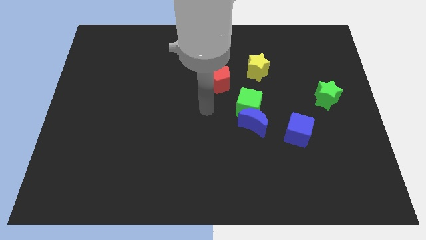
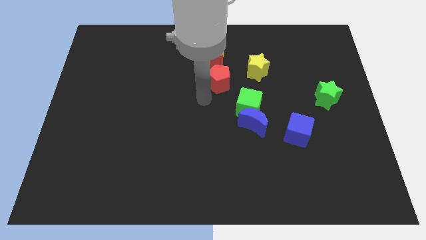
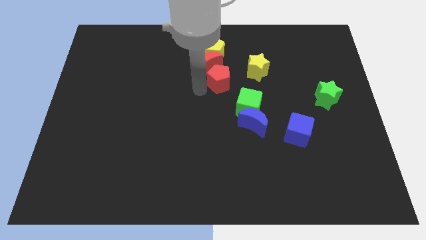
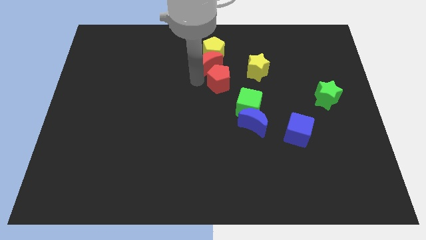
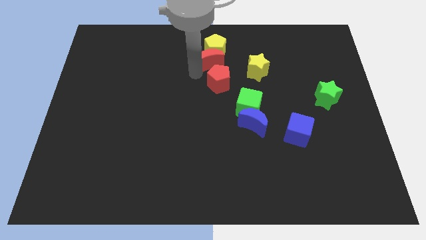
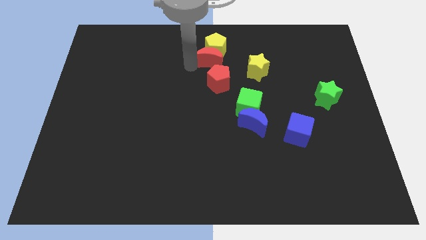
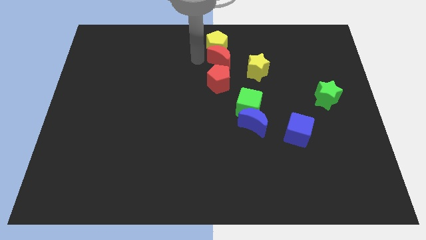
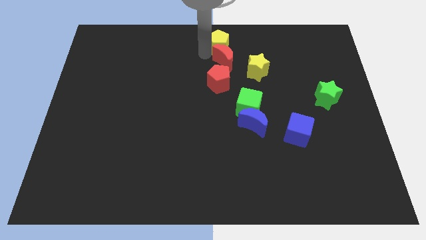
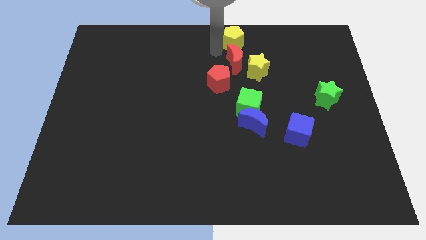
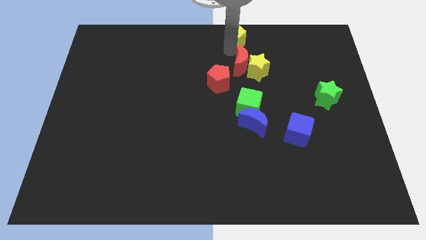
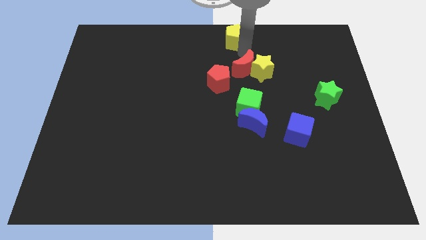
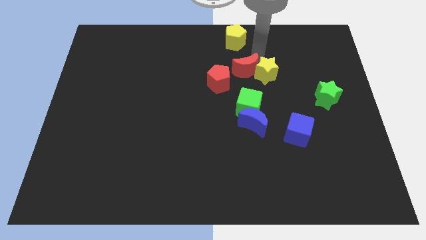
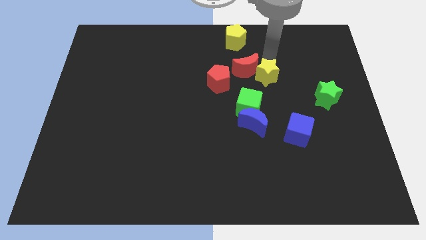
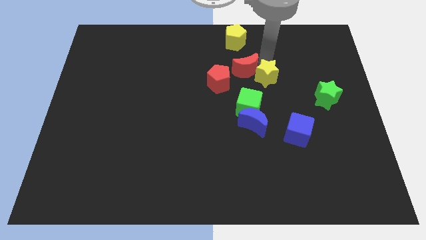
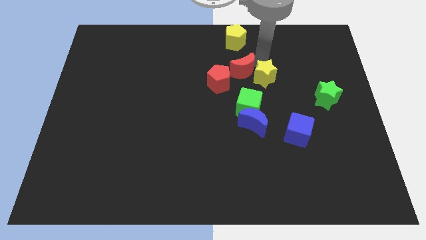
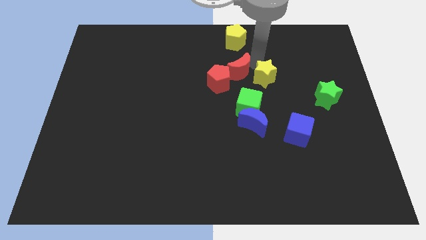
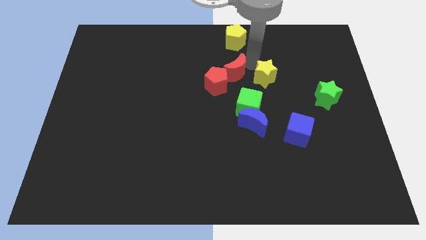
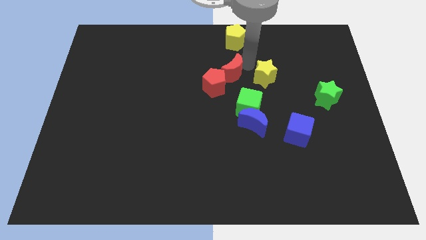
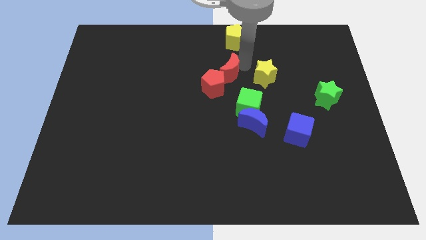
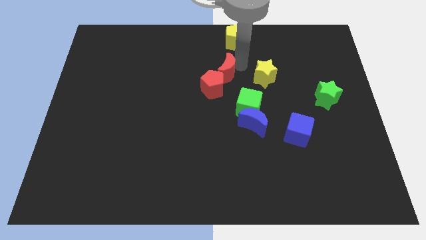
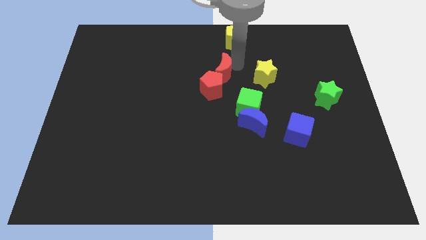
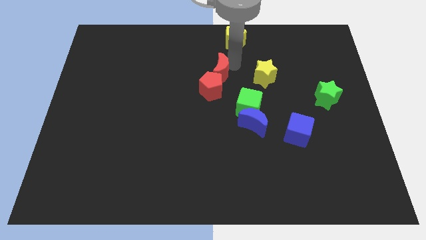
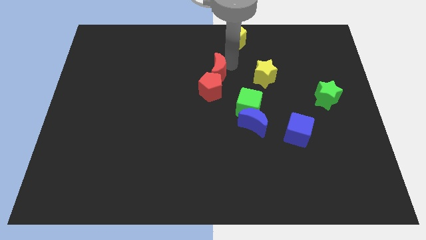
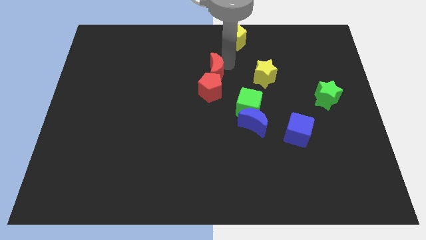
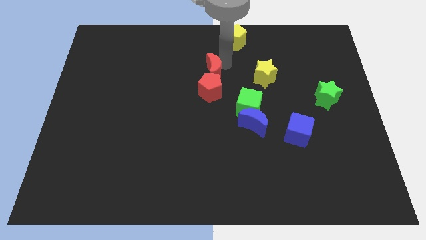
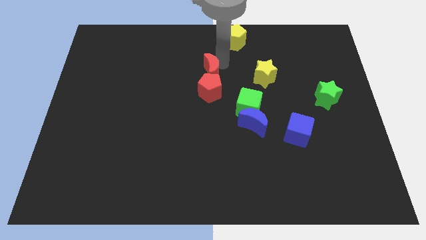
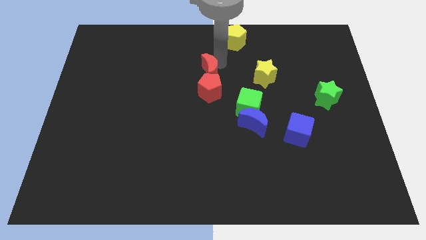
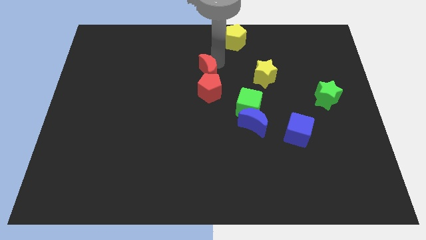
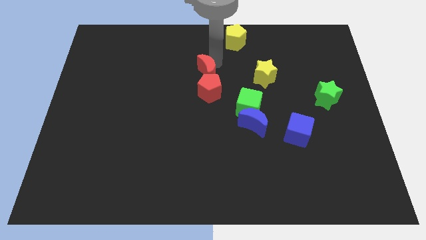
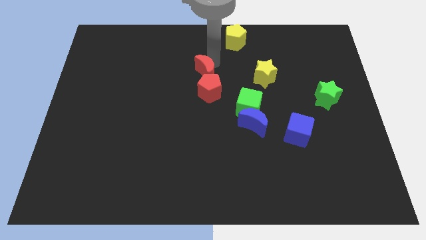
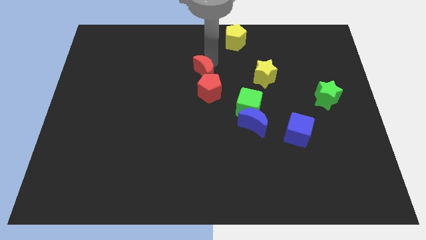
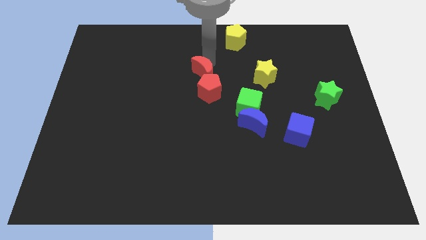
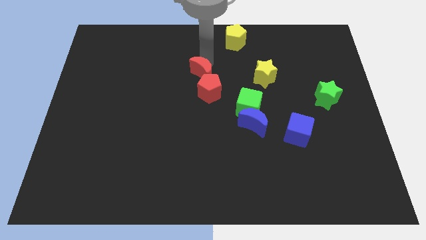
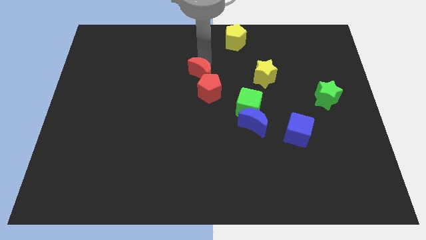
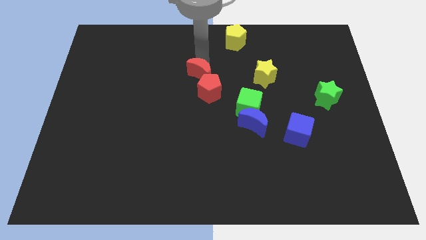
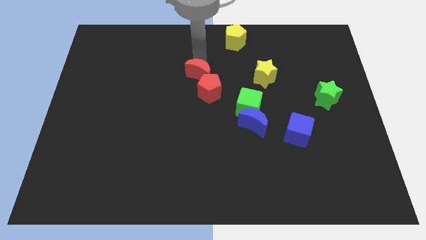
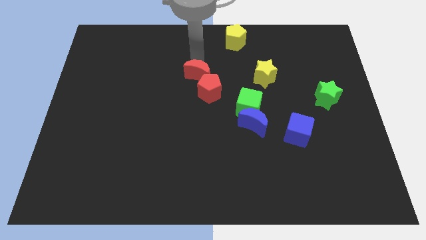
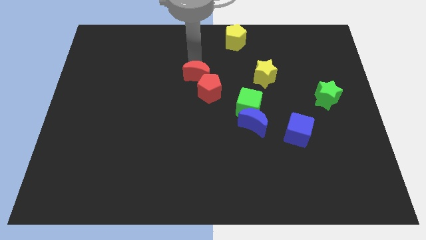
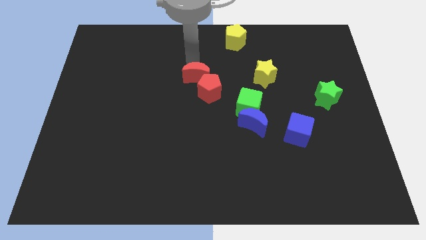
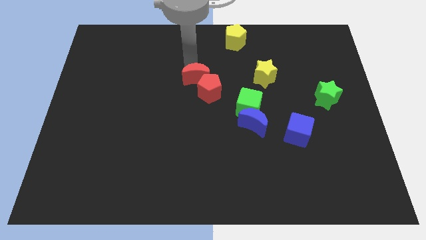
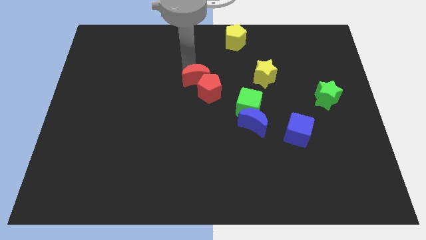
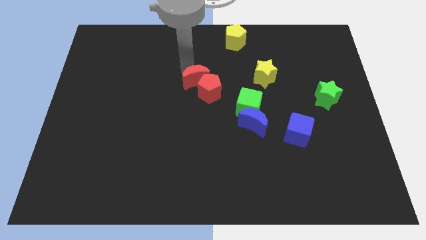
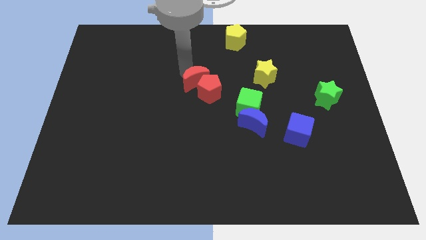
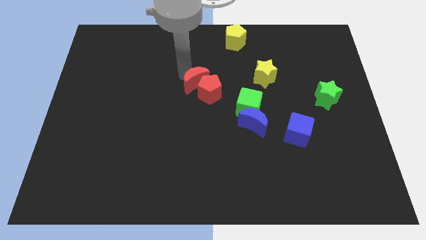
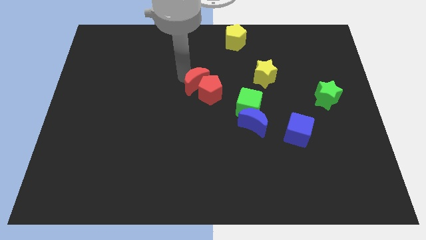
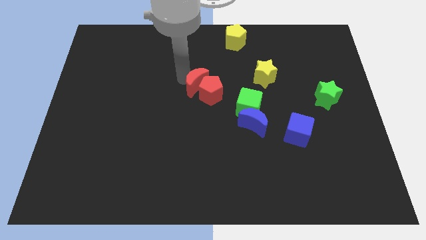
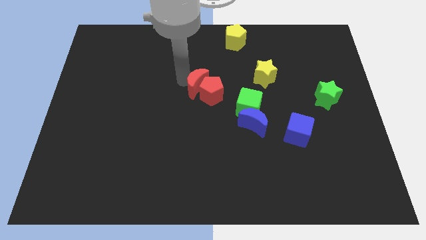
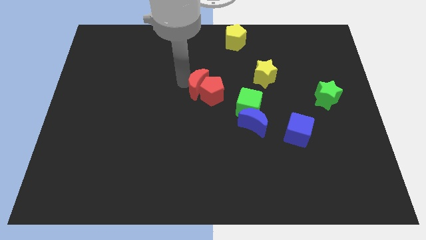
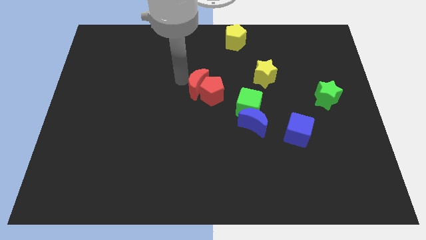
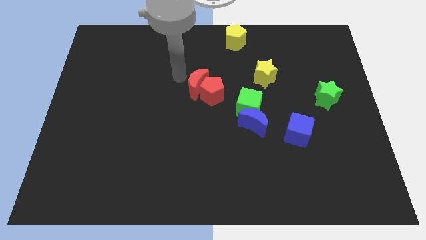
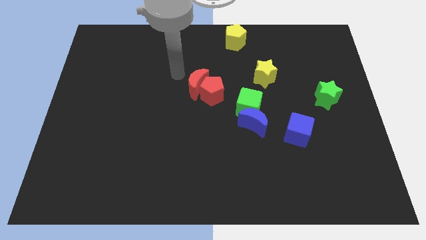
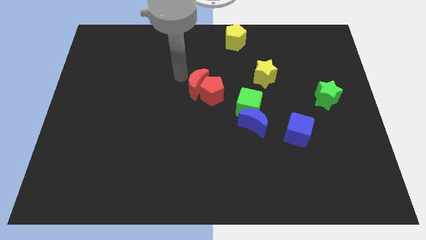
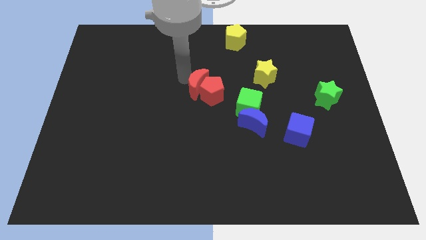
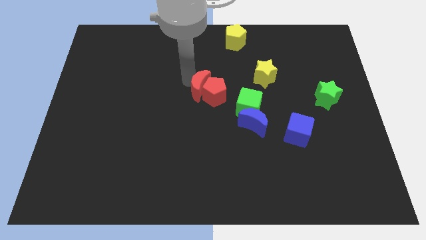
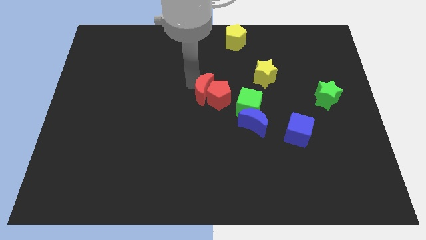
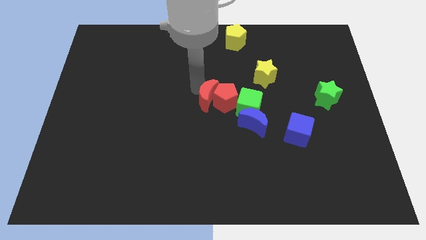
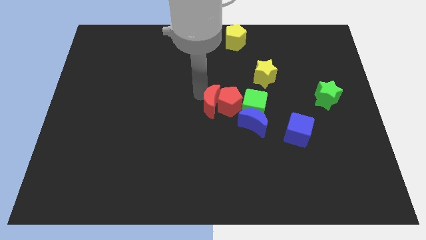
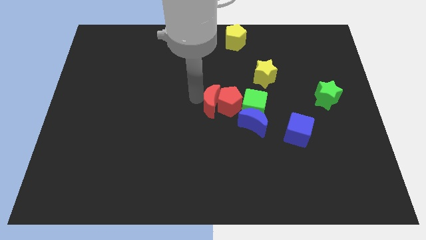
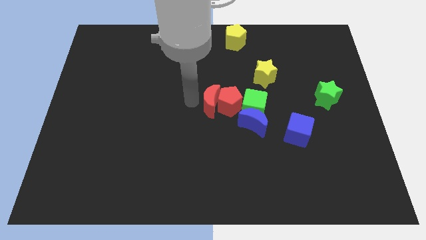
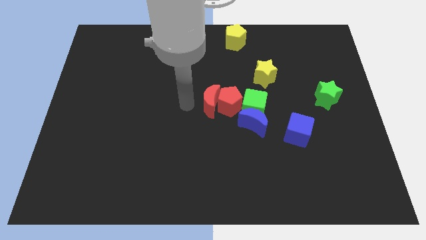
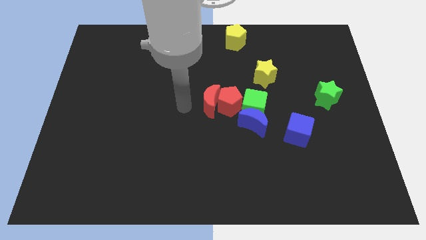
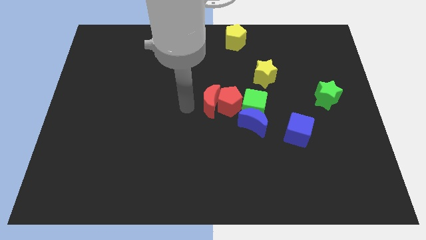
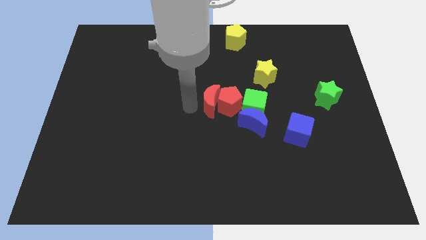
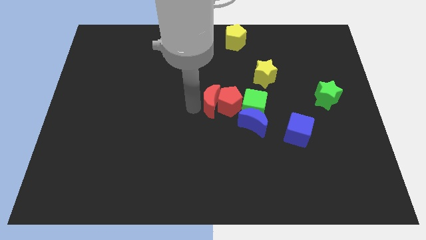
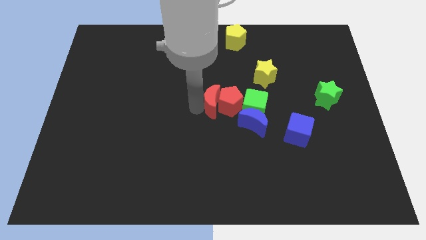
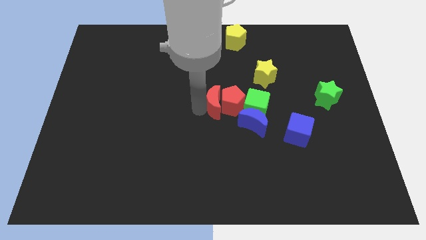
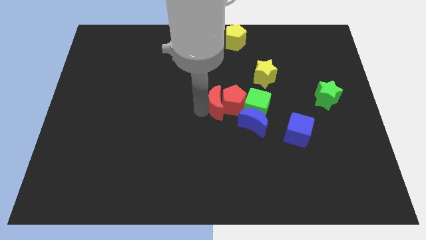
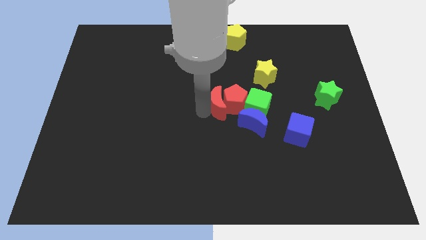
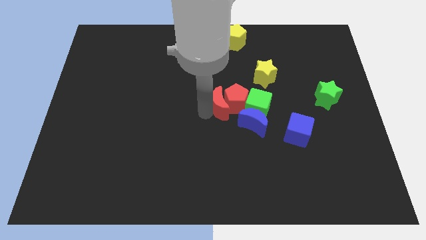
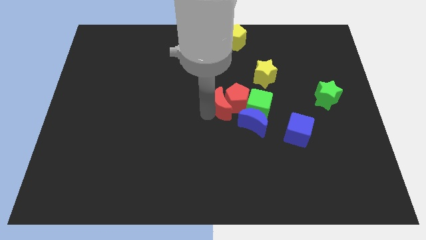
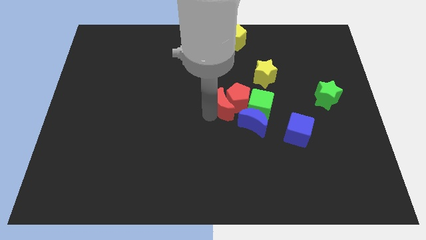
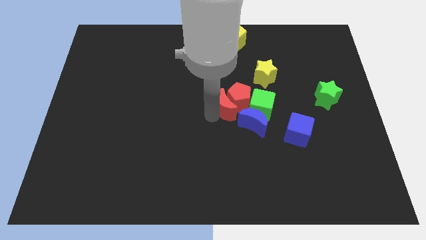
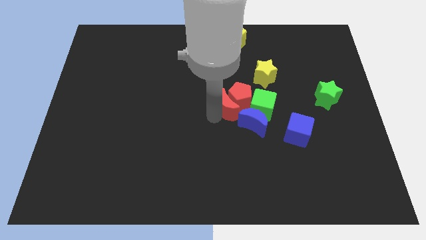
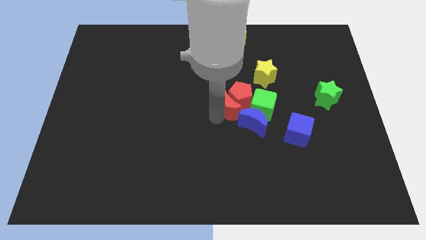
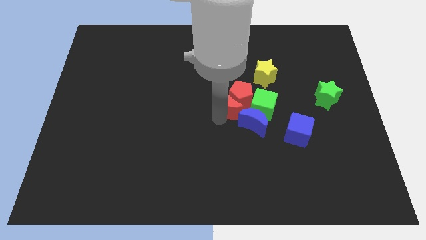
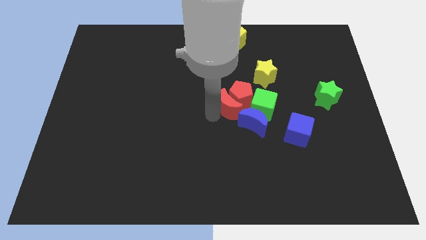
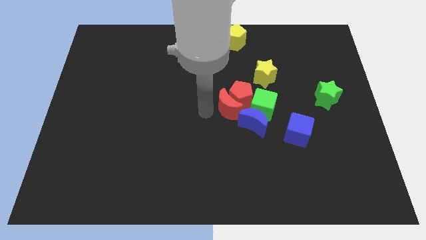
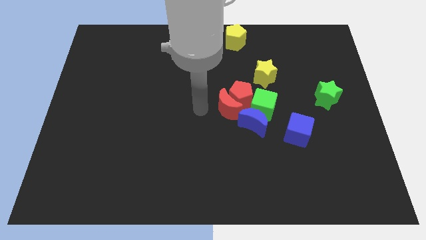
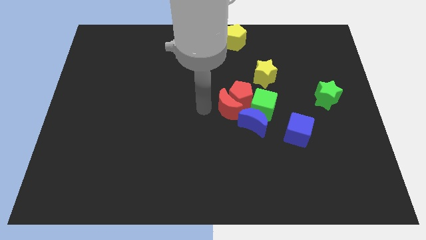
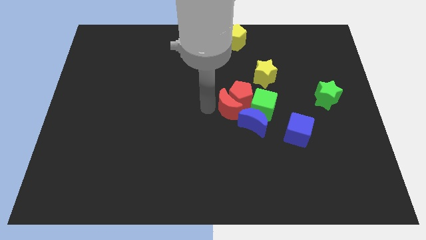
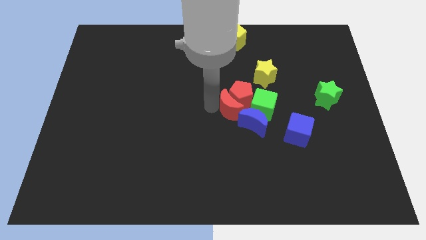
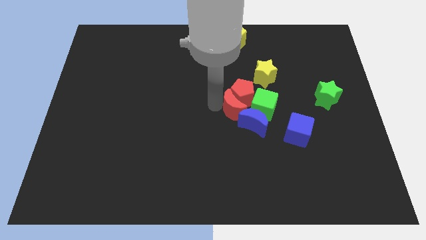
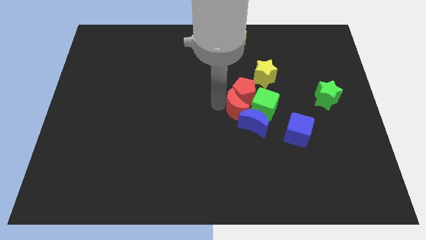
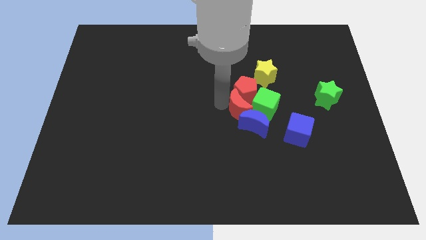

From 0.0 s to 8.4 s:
push the red moon towards the green cube
